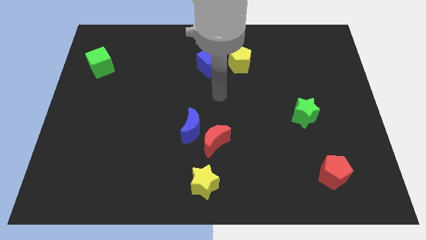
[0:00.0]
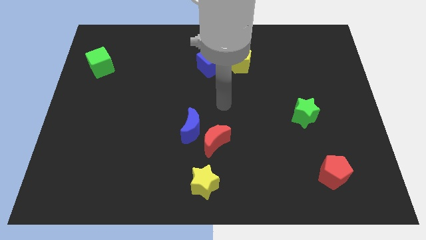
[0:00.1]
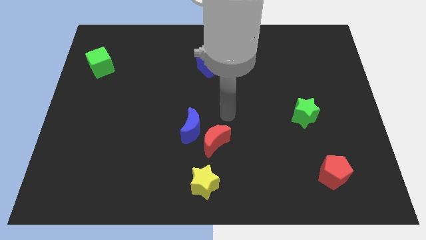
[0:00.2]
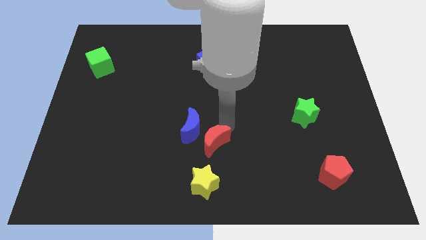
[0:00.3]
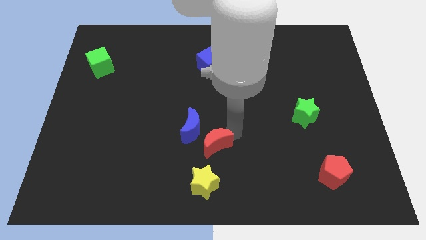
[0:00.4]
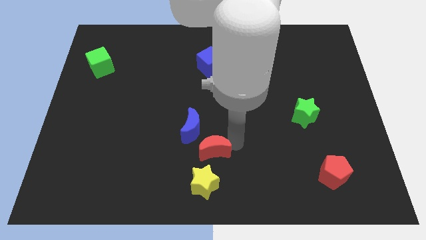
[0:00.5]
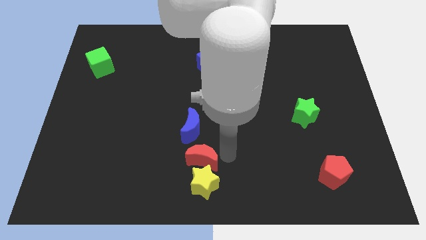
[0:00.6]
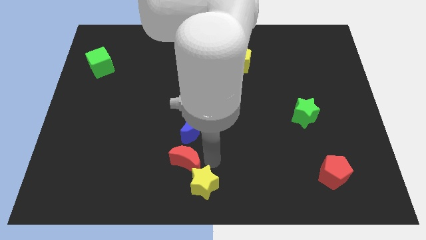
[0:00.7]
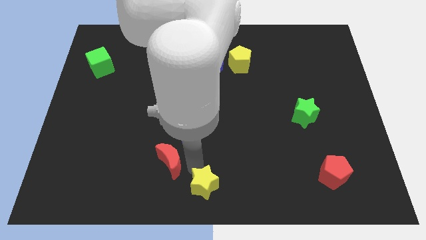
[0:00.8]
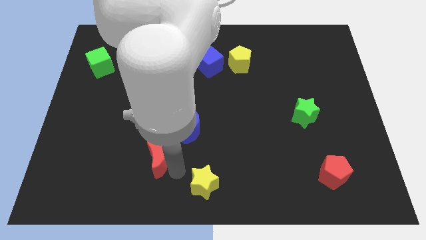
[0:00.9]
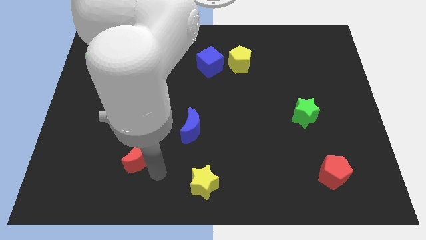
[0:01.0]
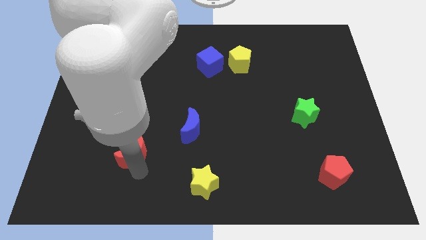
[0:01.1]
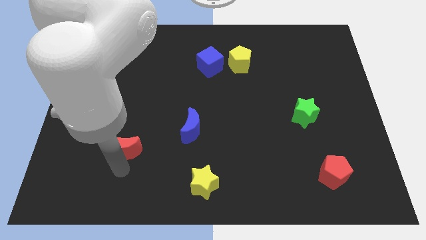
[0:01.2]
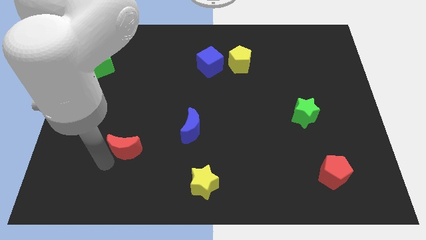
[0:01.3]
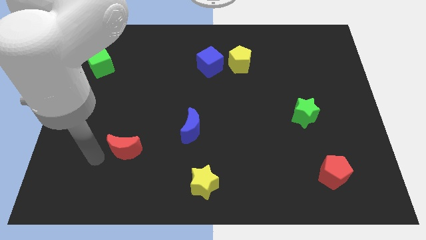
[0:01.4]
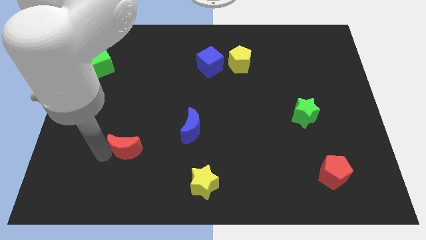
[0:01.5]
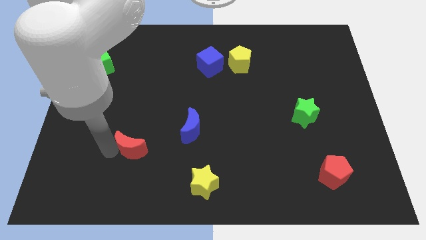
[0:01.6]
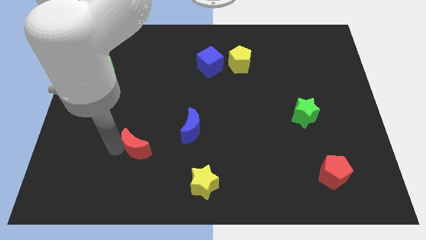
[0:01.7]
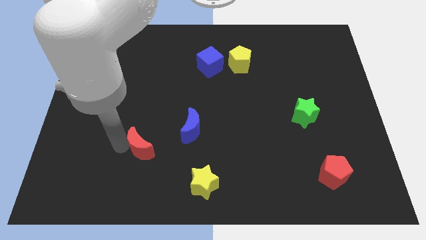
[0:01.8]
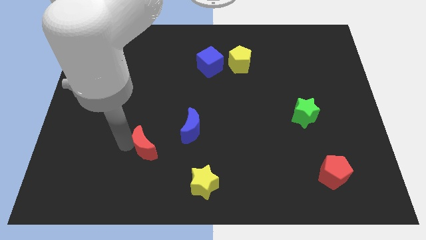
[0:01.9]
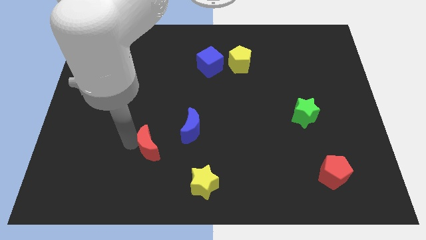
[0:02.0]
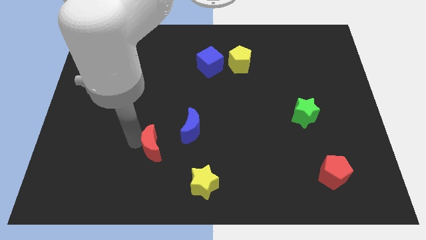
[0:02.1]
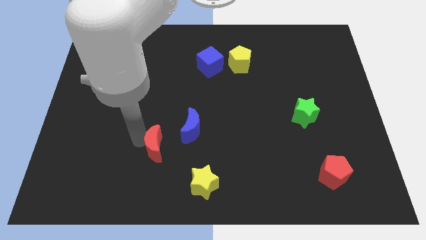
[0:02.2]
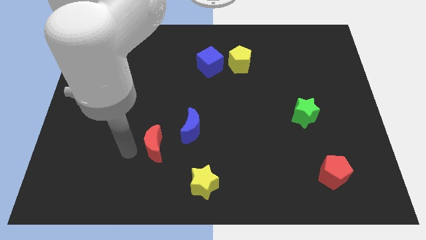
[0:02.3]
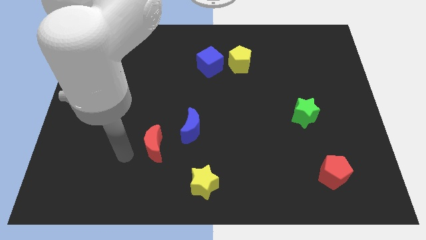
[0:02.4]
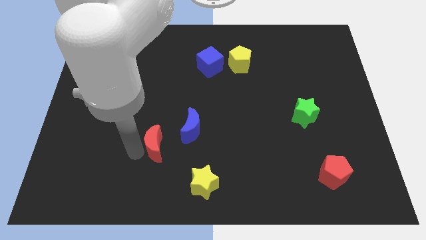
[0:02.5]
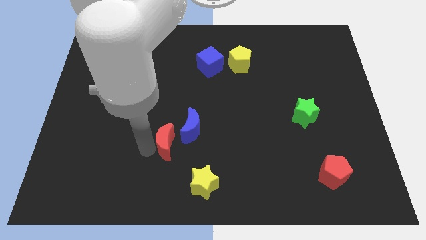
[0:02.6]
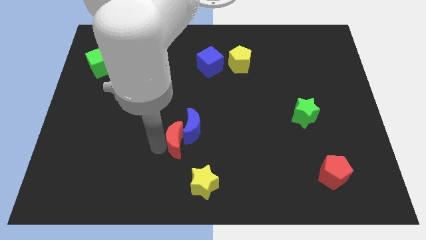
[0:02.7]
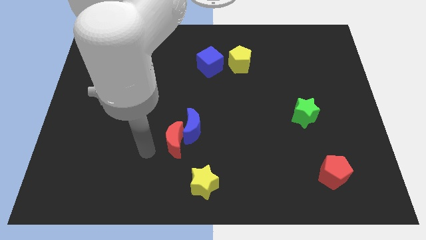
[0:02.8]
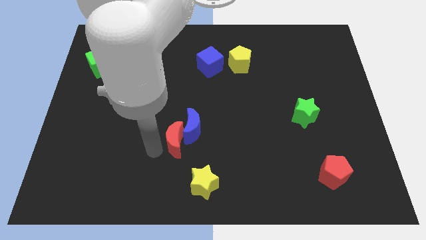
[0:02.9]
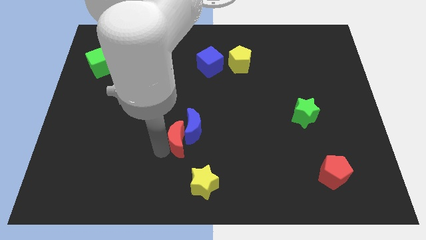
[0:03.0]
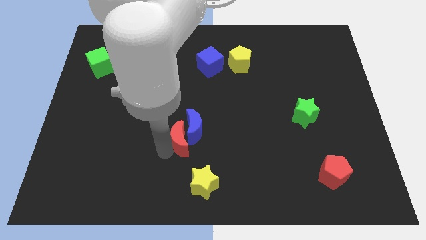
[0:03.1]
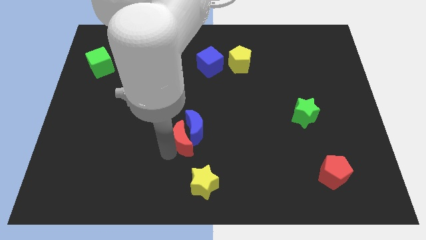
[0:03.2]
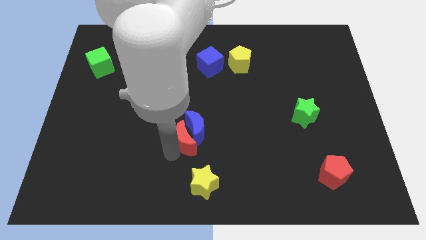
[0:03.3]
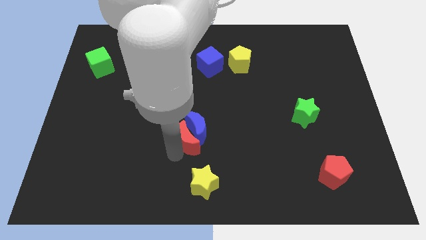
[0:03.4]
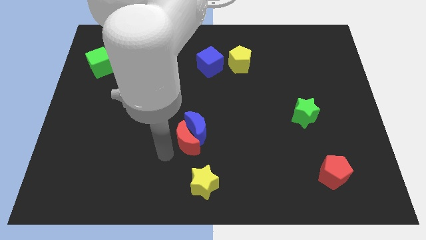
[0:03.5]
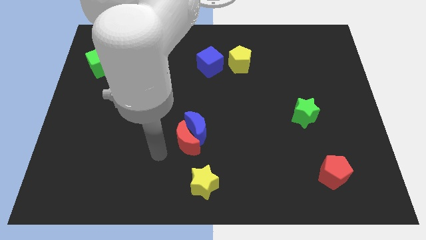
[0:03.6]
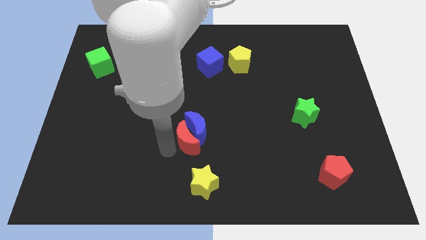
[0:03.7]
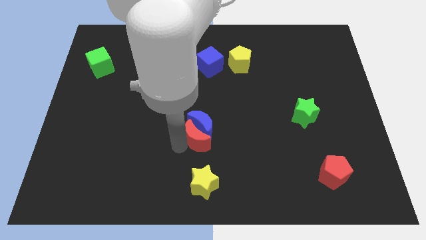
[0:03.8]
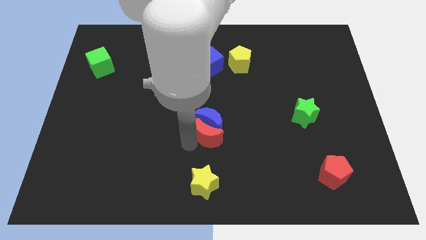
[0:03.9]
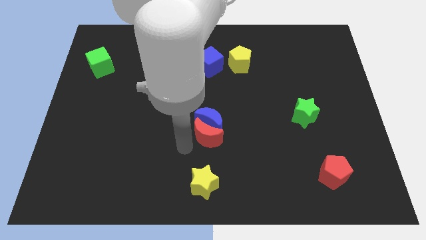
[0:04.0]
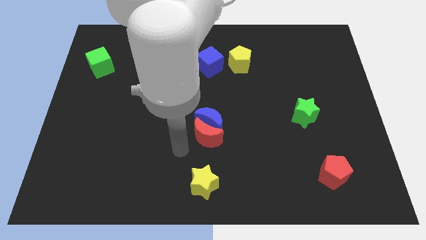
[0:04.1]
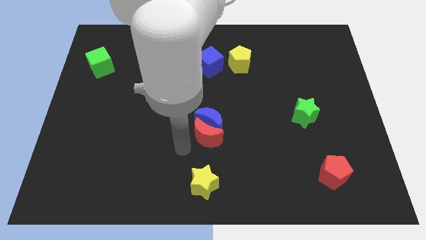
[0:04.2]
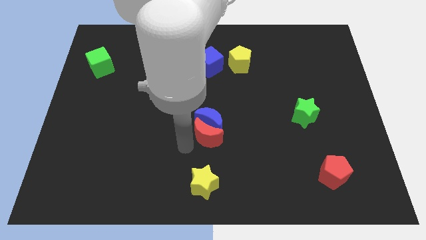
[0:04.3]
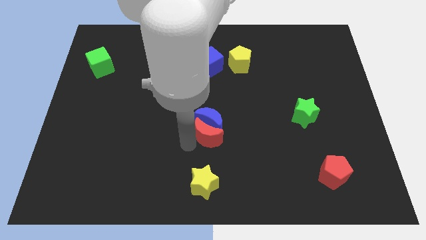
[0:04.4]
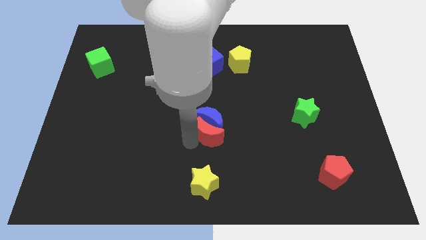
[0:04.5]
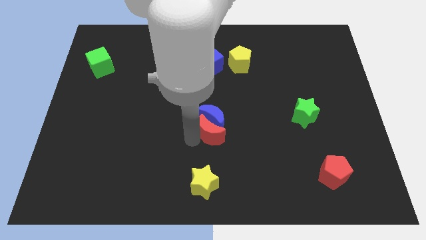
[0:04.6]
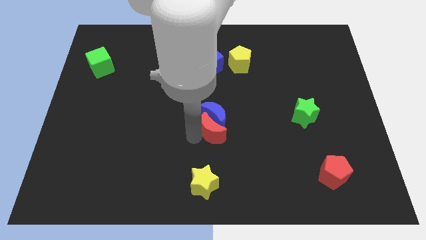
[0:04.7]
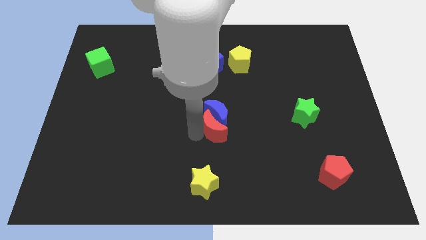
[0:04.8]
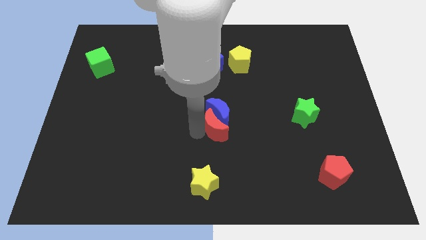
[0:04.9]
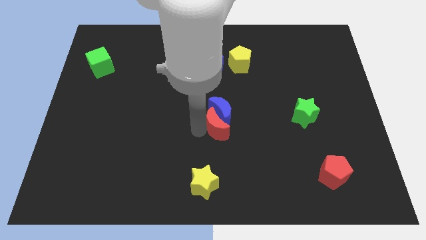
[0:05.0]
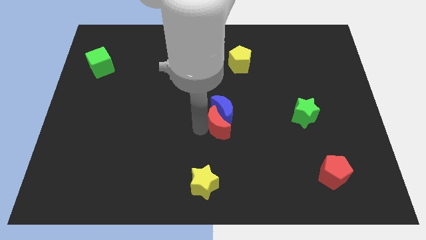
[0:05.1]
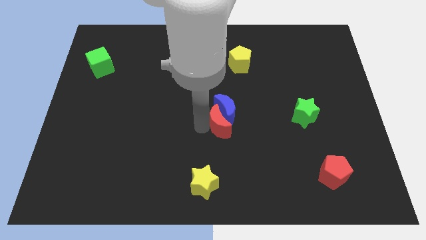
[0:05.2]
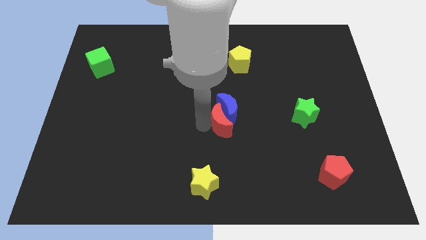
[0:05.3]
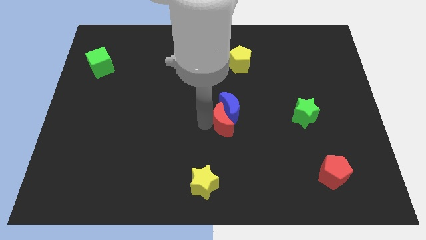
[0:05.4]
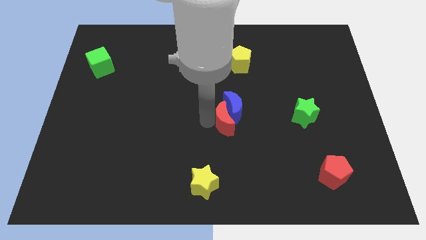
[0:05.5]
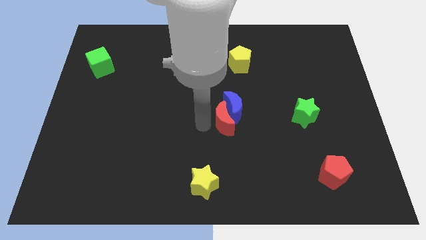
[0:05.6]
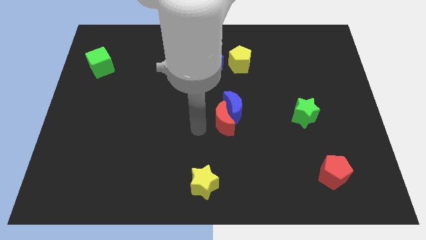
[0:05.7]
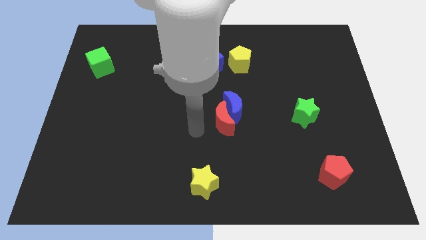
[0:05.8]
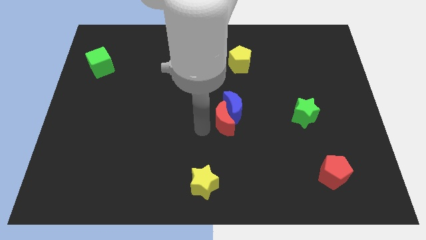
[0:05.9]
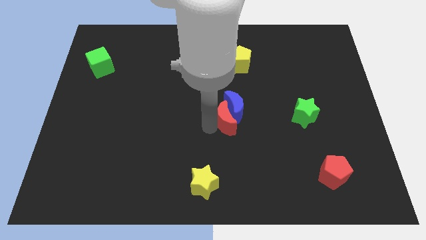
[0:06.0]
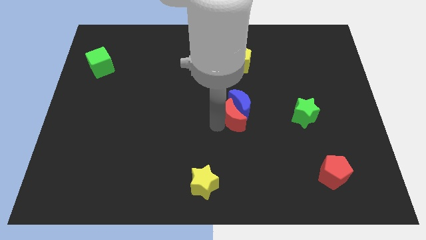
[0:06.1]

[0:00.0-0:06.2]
push the red moon up and to the right a bit

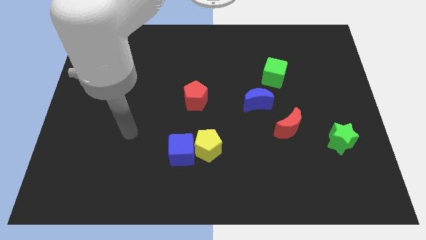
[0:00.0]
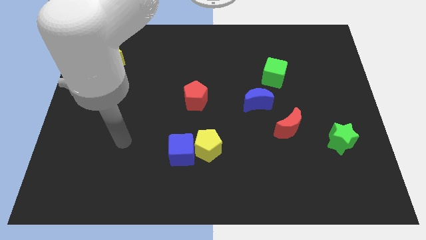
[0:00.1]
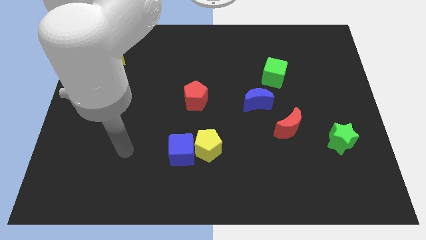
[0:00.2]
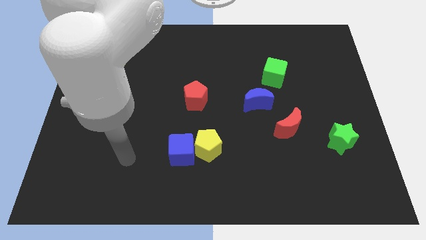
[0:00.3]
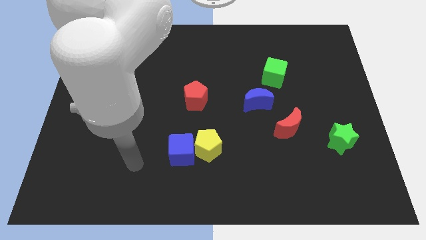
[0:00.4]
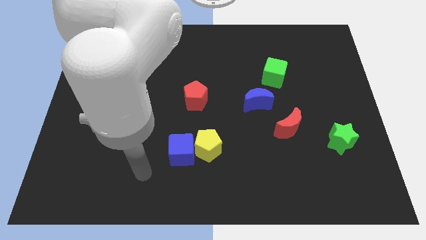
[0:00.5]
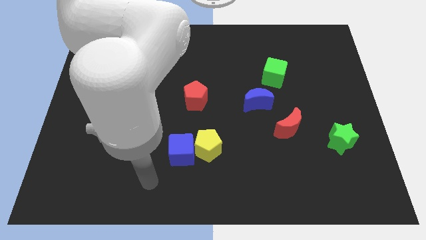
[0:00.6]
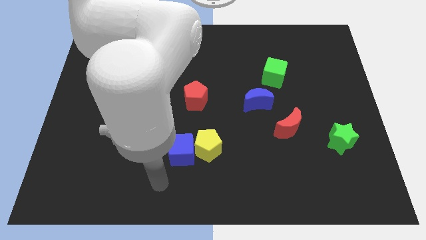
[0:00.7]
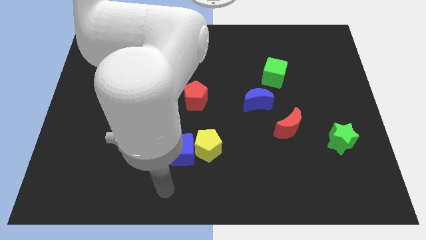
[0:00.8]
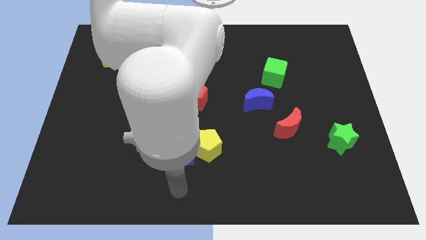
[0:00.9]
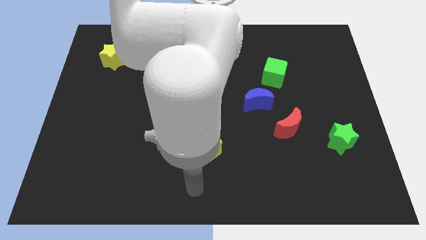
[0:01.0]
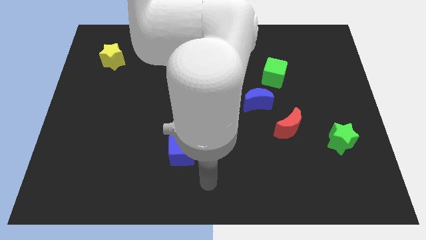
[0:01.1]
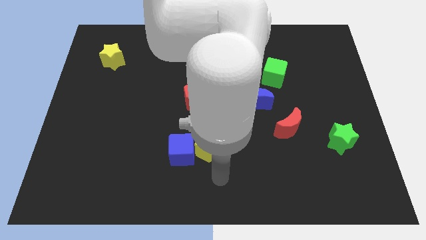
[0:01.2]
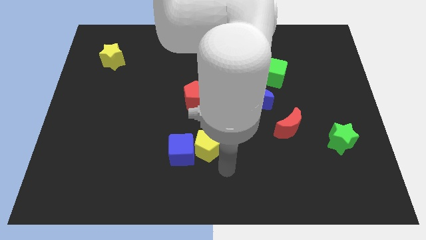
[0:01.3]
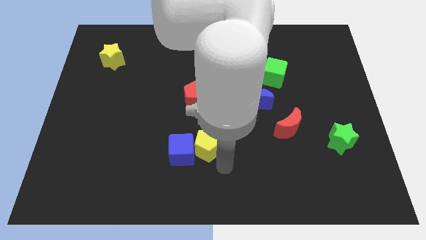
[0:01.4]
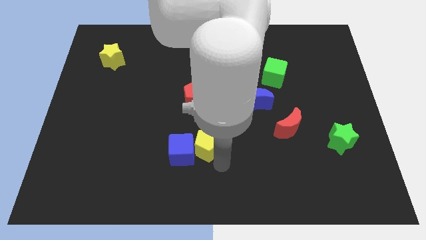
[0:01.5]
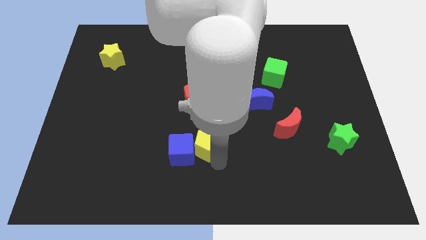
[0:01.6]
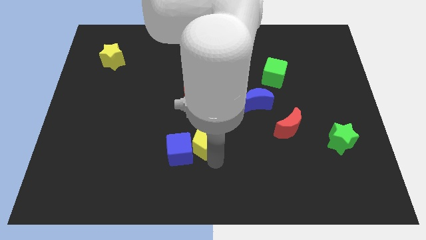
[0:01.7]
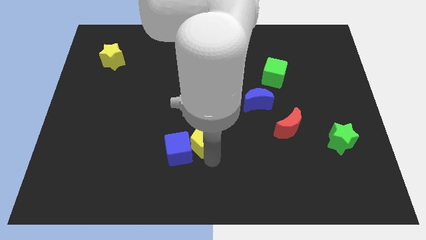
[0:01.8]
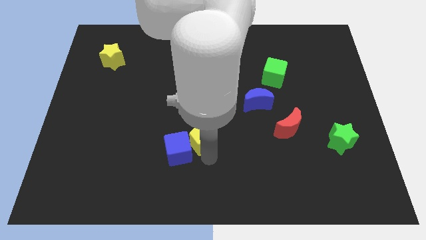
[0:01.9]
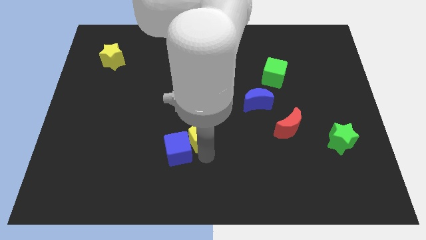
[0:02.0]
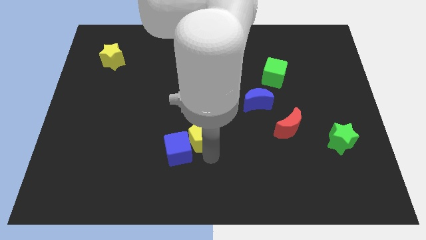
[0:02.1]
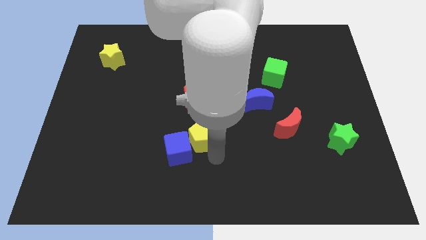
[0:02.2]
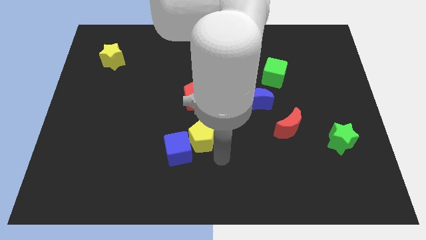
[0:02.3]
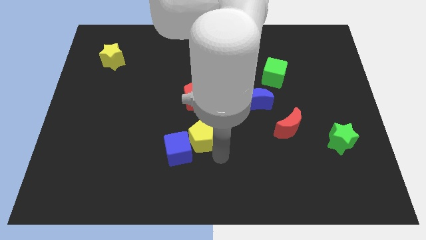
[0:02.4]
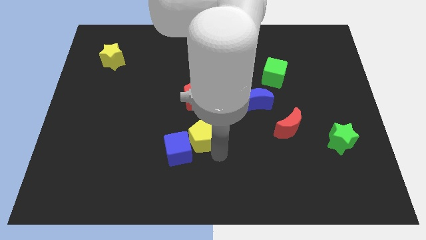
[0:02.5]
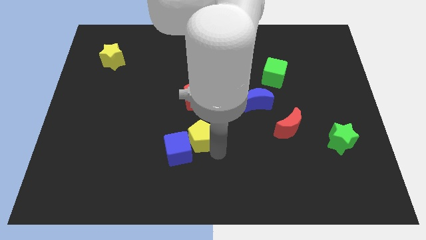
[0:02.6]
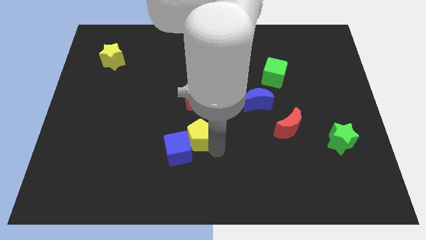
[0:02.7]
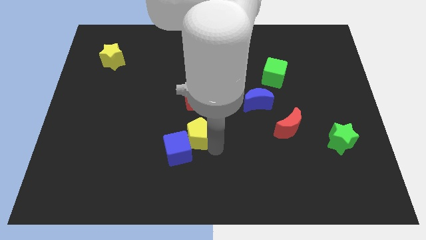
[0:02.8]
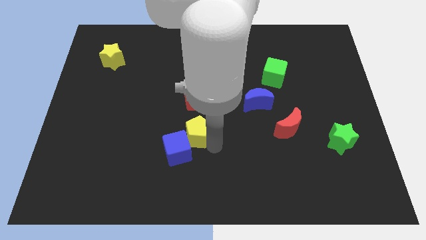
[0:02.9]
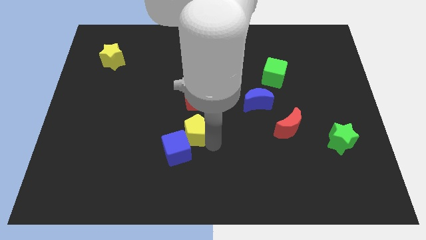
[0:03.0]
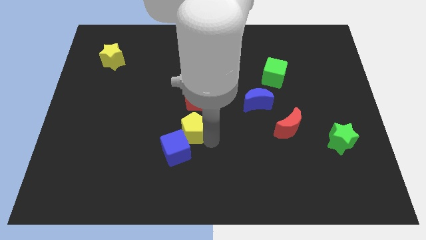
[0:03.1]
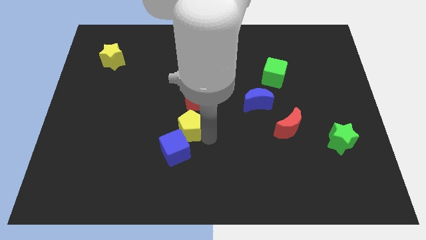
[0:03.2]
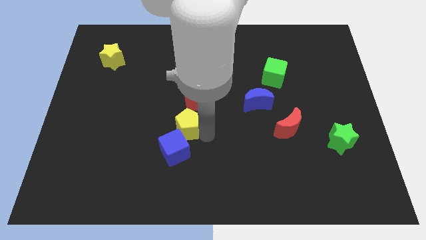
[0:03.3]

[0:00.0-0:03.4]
slightly push the yellow pentagon up and then left
